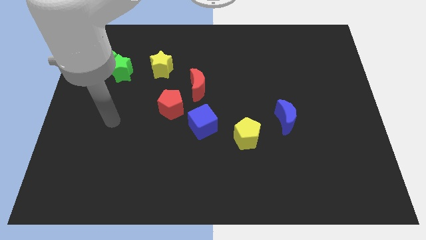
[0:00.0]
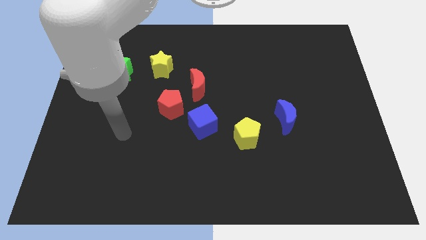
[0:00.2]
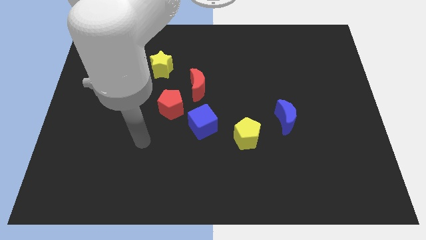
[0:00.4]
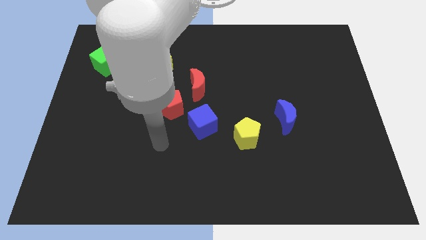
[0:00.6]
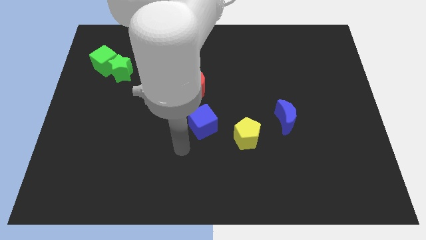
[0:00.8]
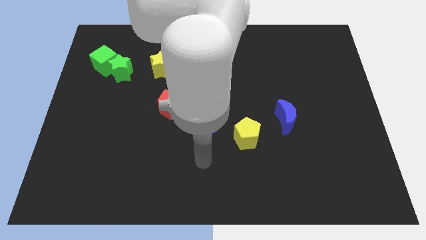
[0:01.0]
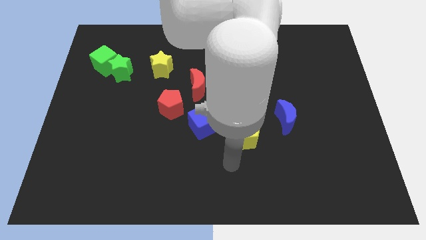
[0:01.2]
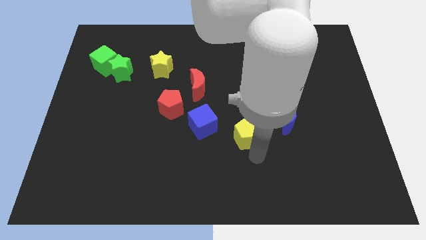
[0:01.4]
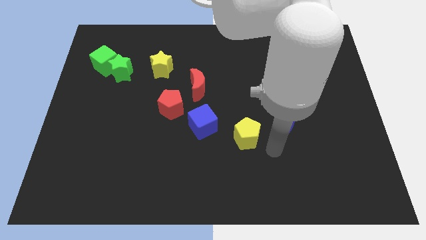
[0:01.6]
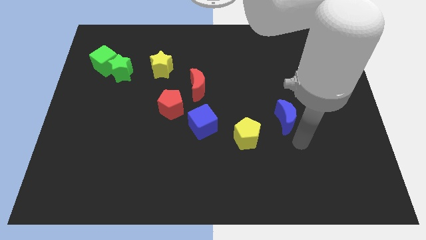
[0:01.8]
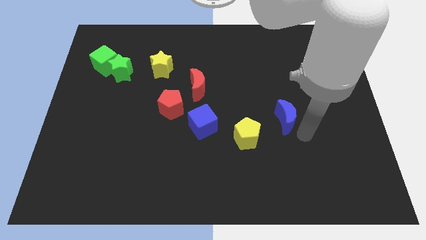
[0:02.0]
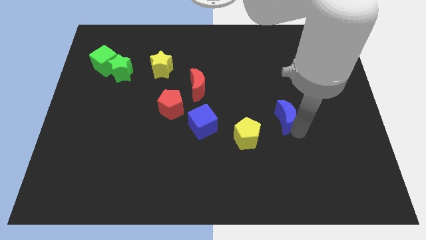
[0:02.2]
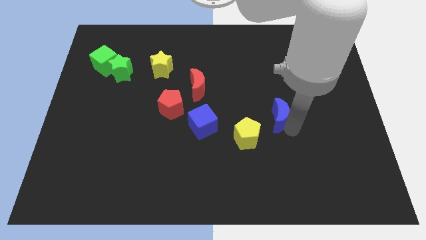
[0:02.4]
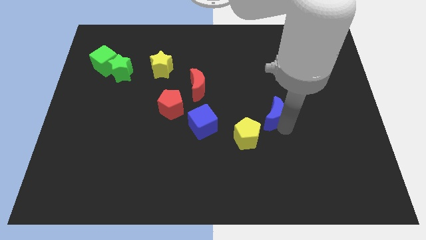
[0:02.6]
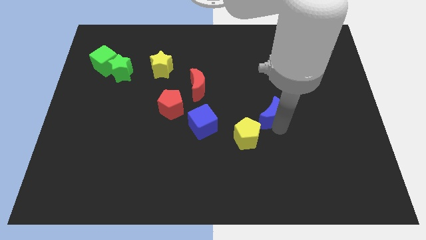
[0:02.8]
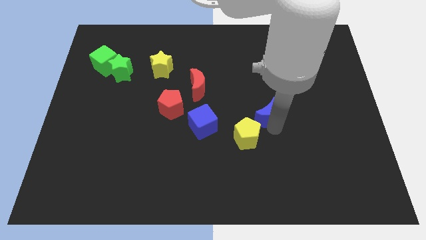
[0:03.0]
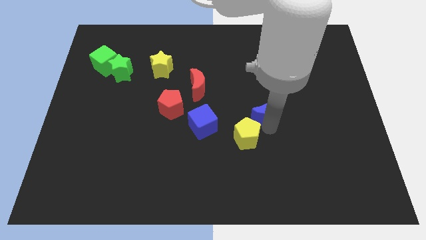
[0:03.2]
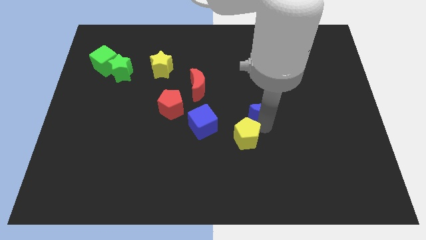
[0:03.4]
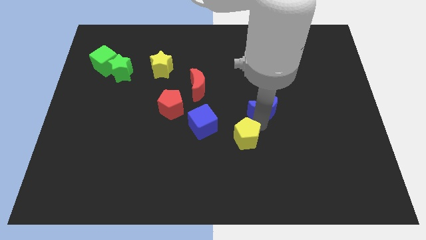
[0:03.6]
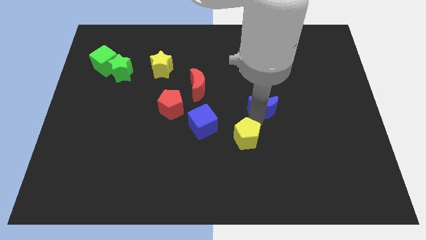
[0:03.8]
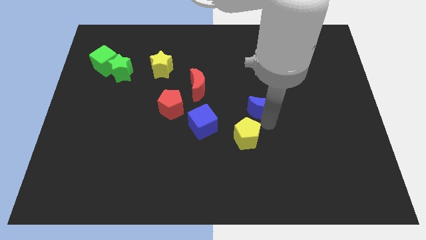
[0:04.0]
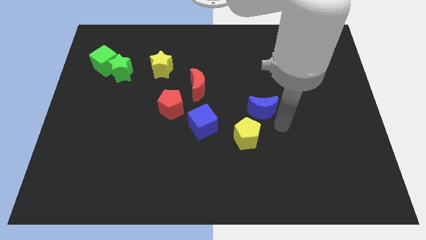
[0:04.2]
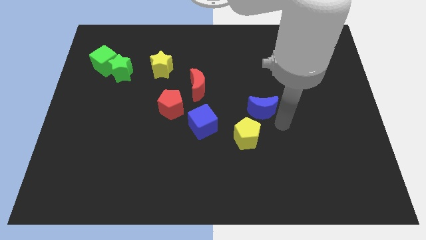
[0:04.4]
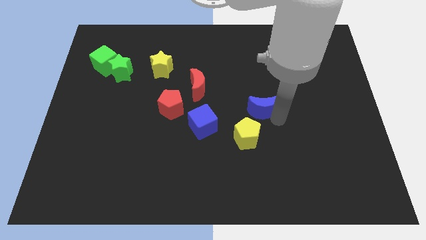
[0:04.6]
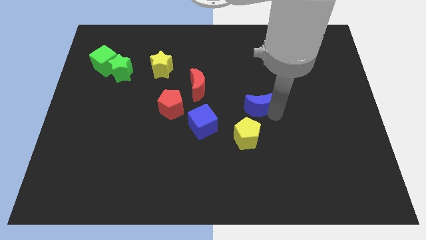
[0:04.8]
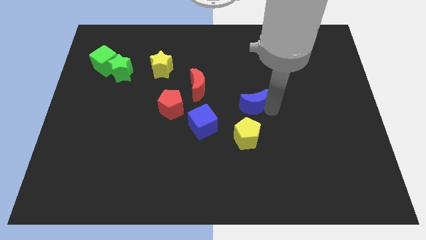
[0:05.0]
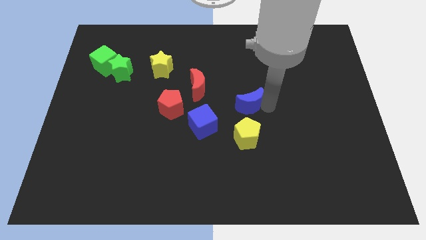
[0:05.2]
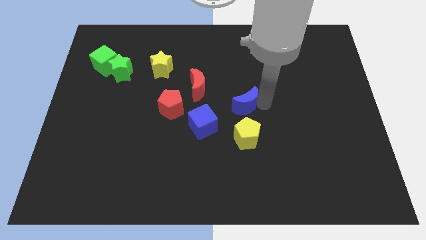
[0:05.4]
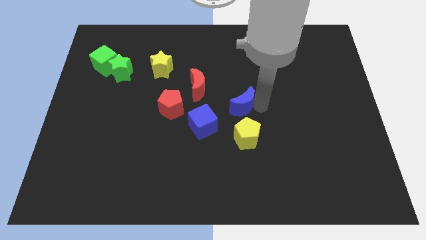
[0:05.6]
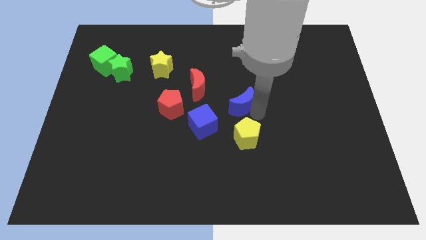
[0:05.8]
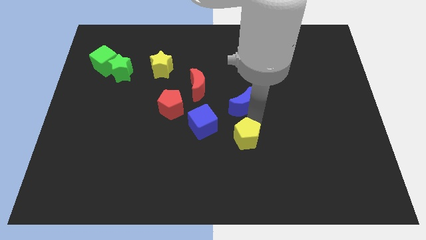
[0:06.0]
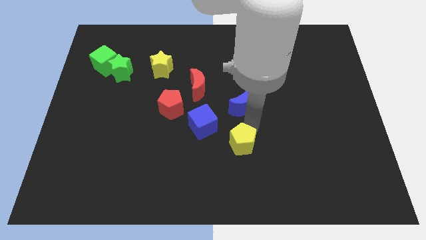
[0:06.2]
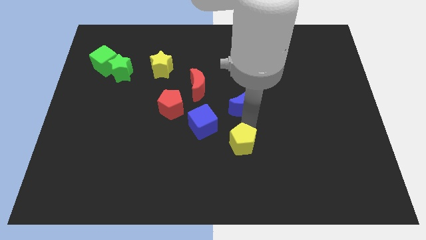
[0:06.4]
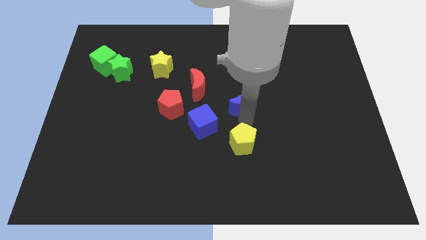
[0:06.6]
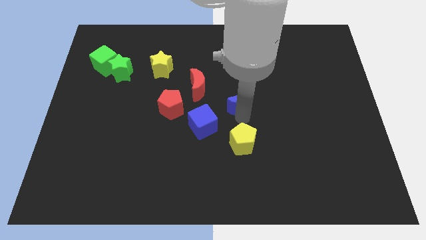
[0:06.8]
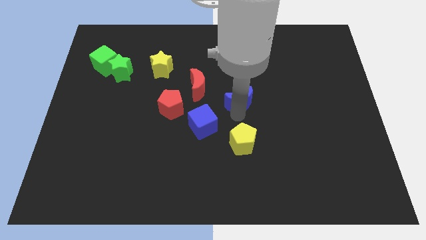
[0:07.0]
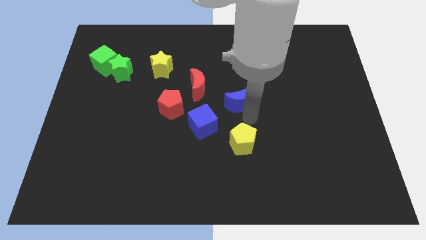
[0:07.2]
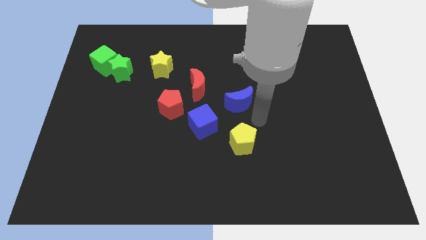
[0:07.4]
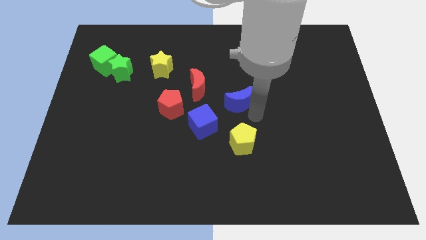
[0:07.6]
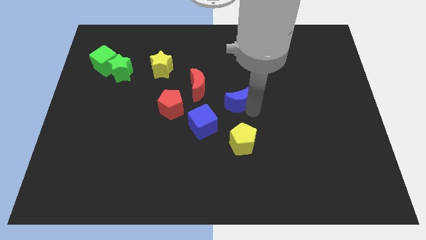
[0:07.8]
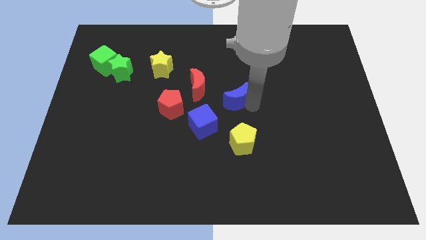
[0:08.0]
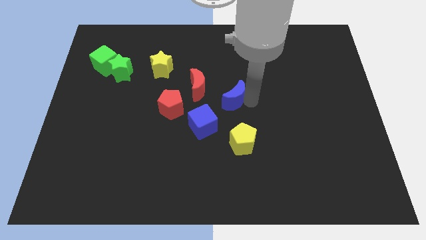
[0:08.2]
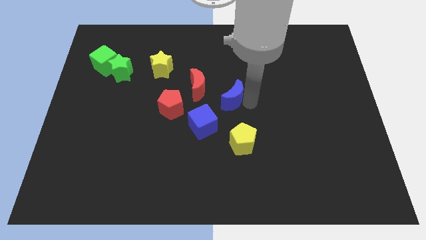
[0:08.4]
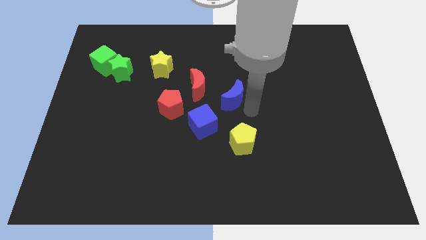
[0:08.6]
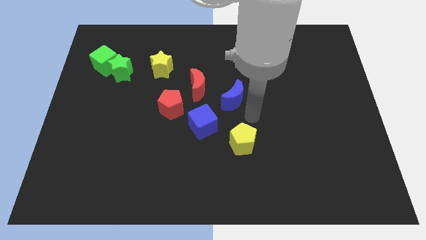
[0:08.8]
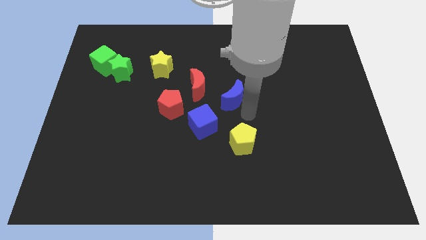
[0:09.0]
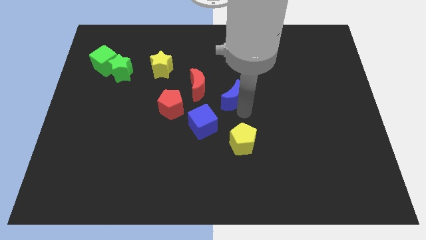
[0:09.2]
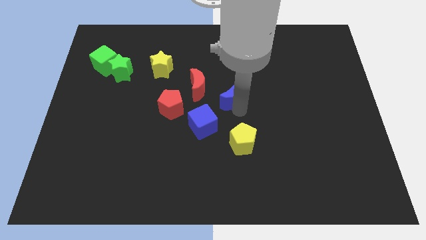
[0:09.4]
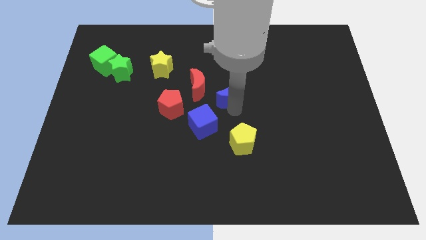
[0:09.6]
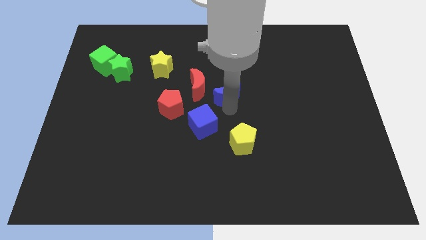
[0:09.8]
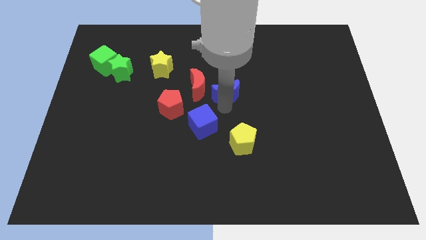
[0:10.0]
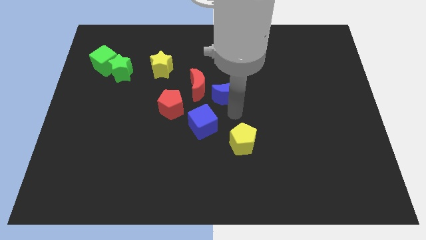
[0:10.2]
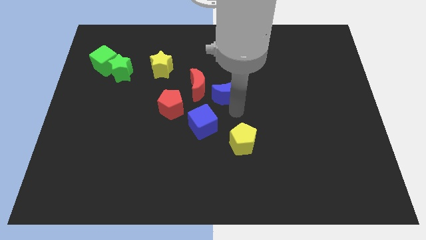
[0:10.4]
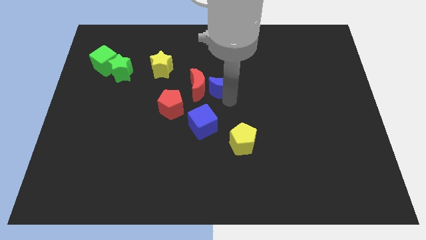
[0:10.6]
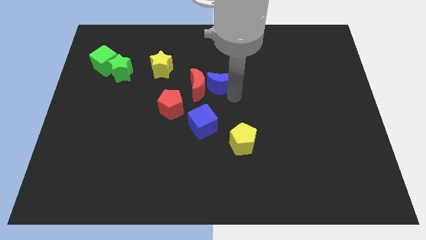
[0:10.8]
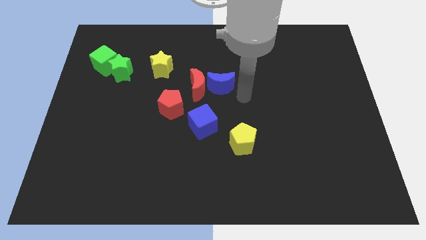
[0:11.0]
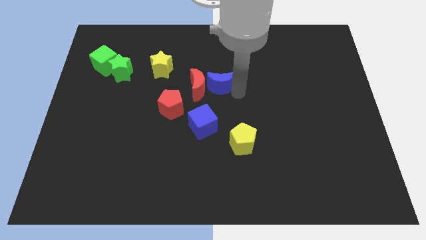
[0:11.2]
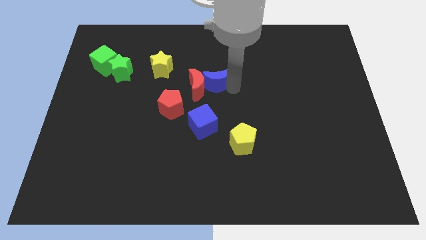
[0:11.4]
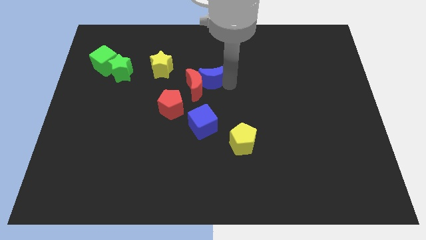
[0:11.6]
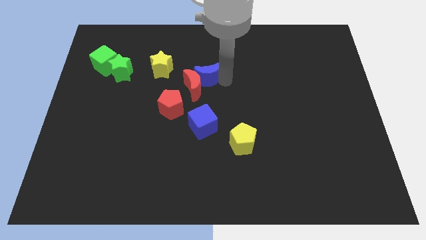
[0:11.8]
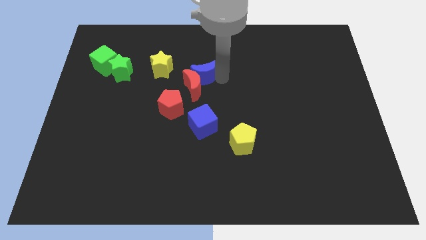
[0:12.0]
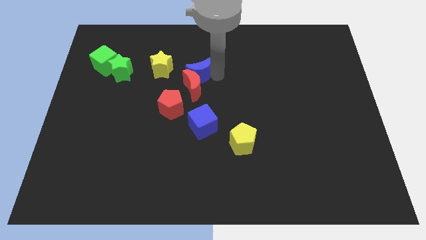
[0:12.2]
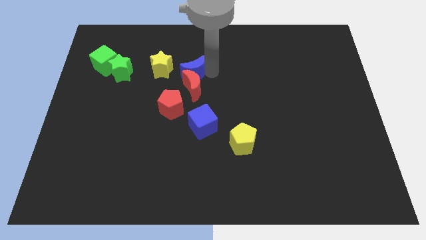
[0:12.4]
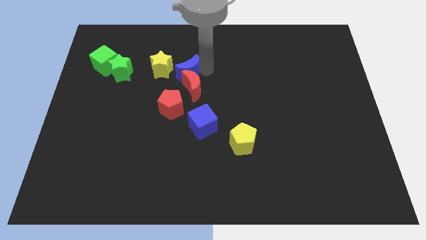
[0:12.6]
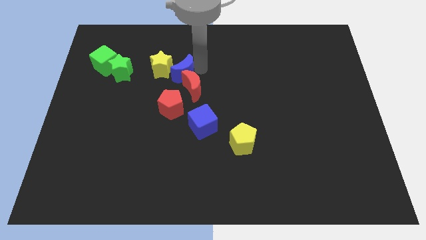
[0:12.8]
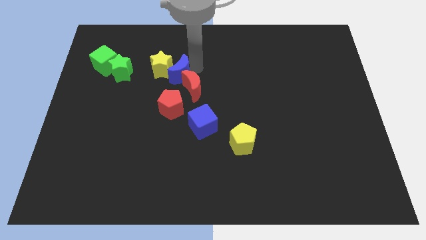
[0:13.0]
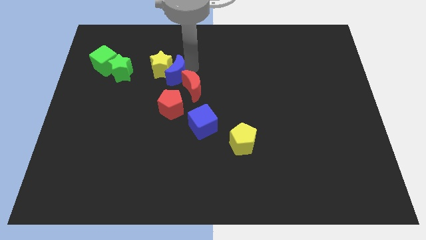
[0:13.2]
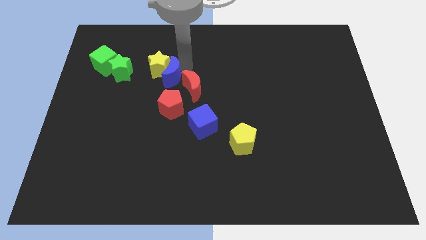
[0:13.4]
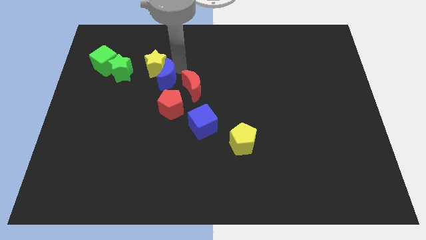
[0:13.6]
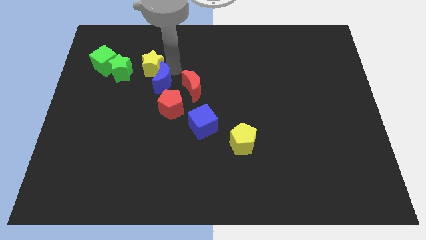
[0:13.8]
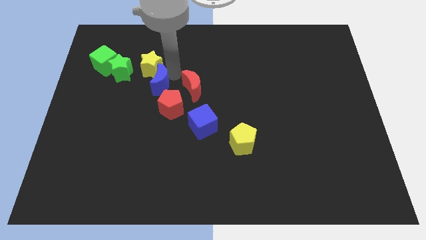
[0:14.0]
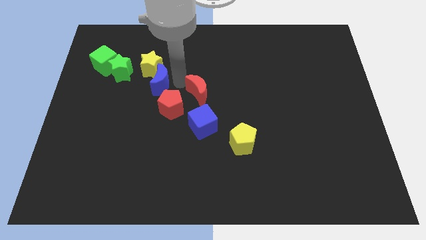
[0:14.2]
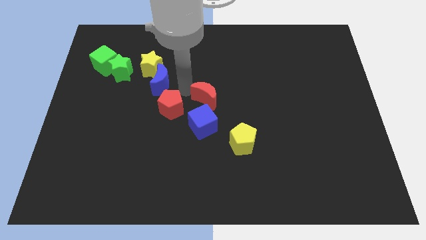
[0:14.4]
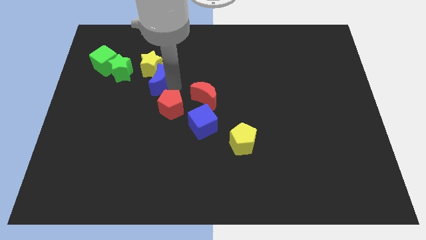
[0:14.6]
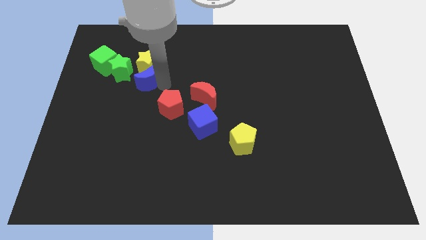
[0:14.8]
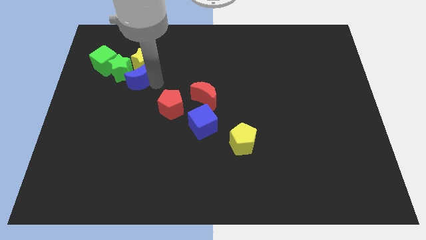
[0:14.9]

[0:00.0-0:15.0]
put the blue moon close to the green star

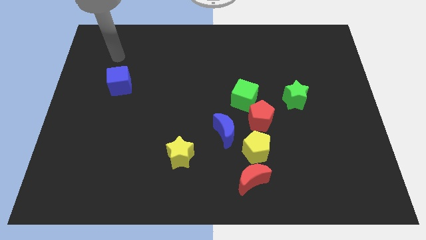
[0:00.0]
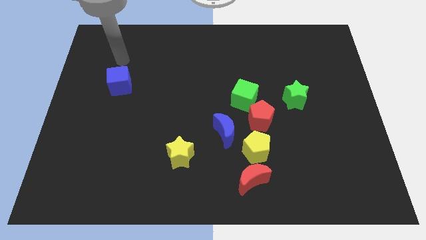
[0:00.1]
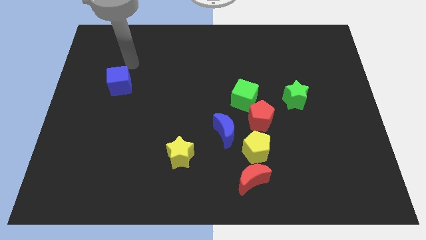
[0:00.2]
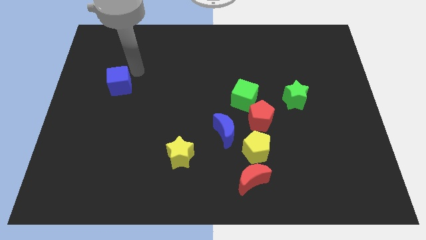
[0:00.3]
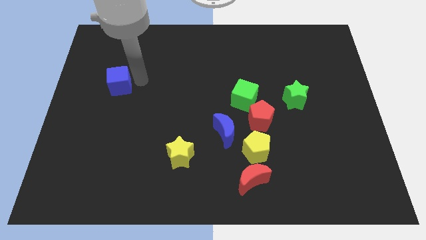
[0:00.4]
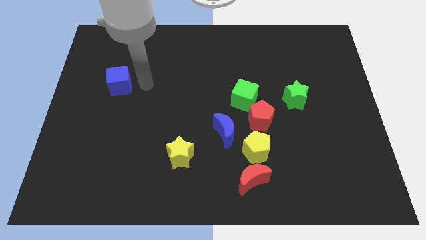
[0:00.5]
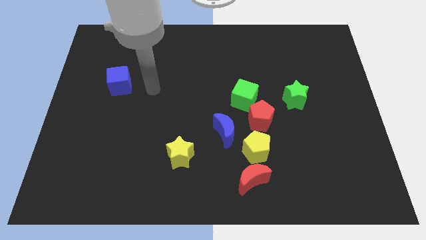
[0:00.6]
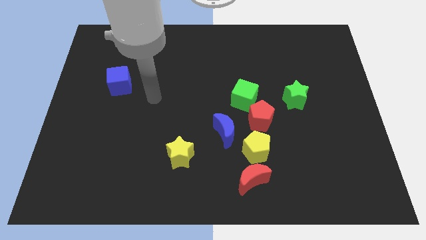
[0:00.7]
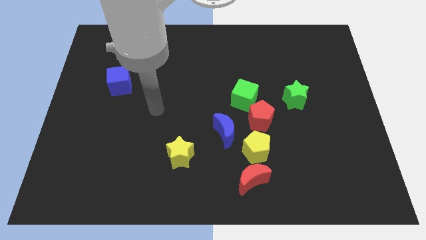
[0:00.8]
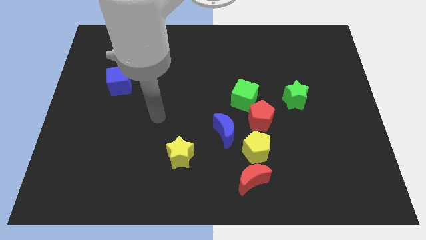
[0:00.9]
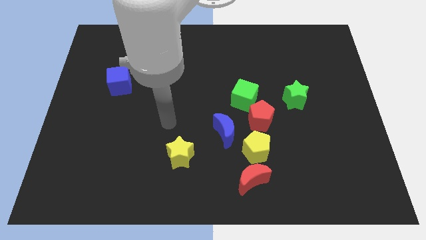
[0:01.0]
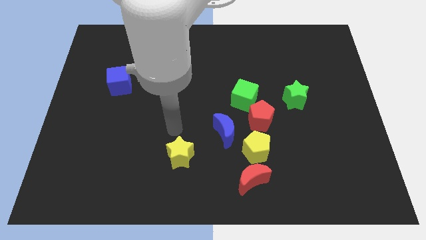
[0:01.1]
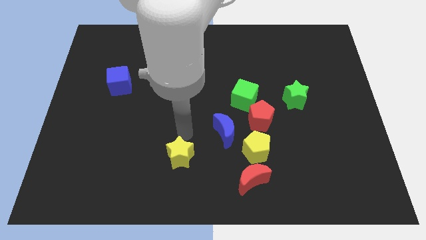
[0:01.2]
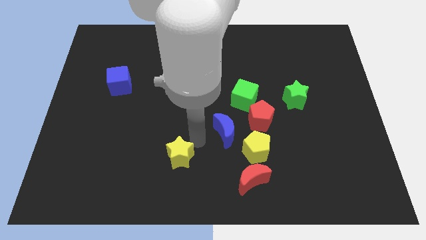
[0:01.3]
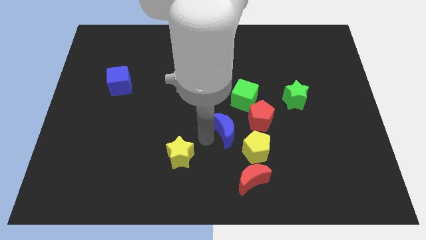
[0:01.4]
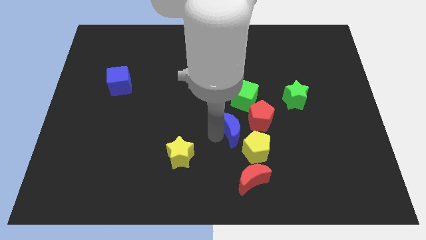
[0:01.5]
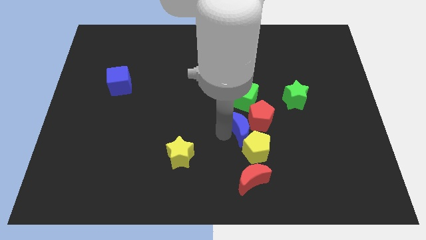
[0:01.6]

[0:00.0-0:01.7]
slide the blue moon to the red pentagon
